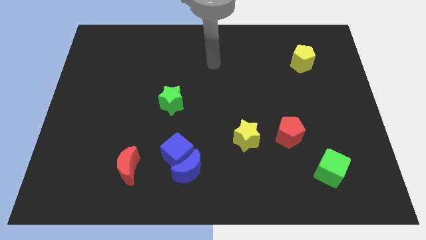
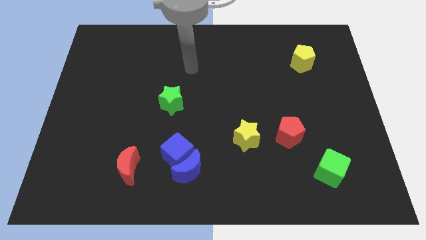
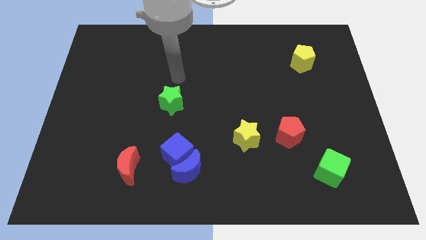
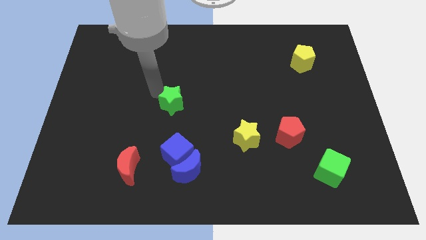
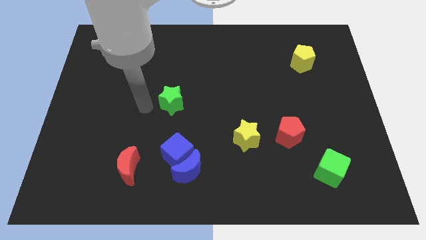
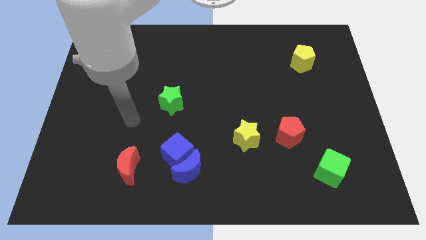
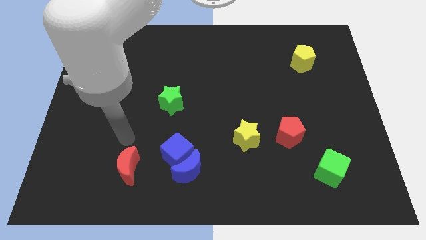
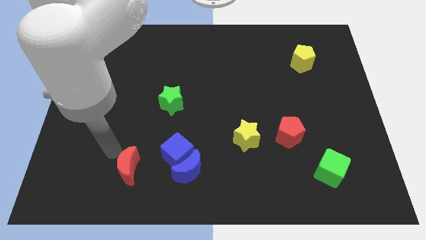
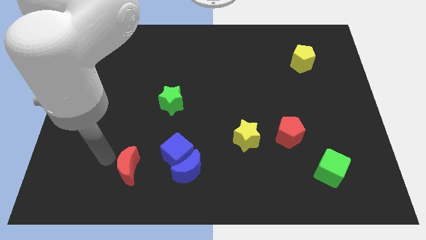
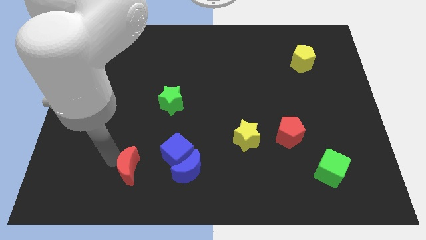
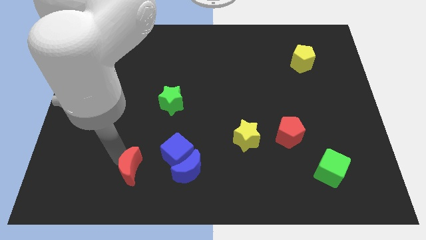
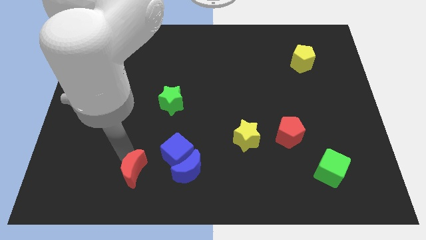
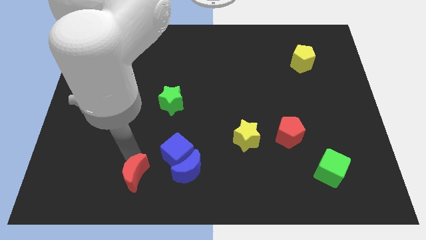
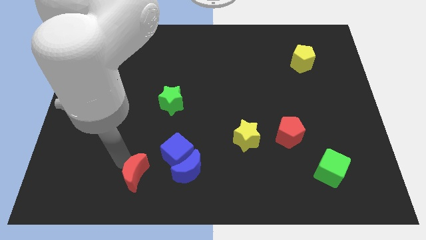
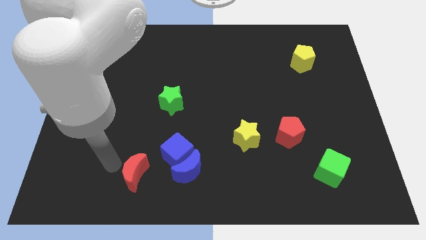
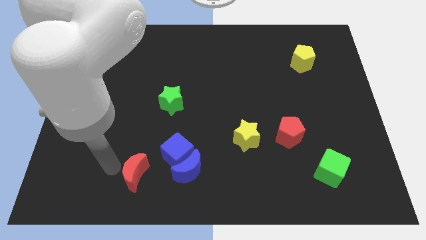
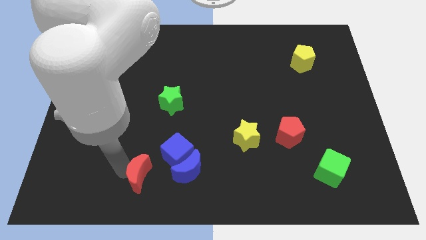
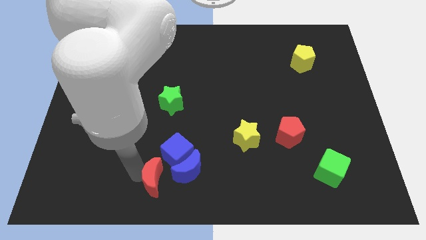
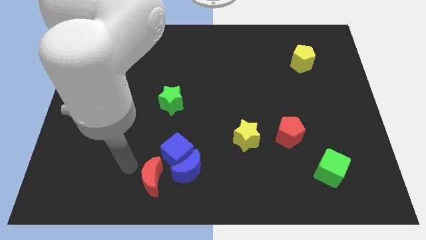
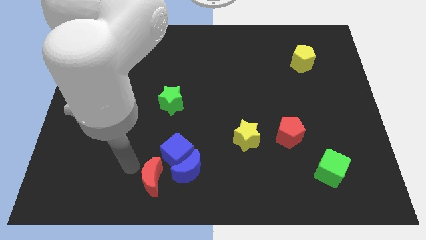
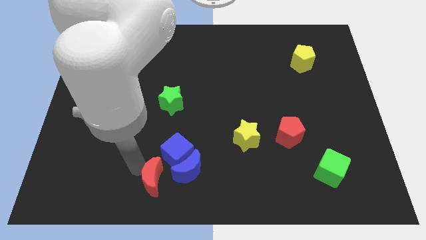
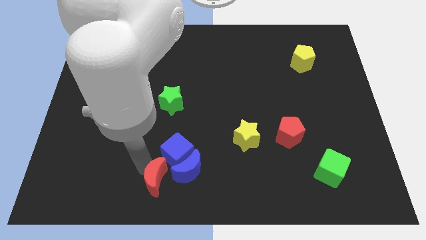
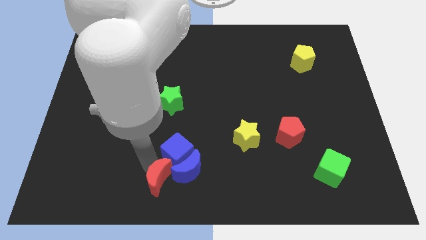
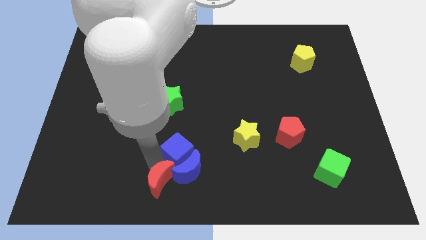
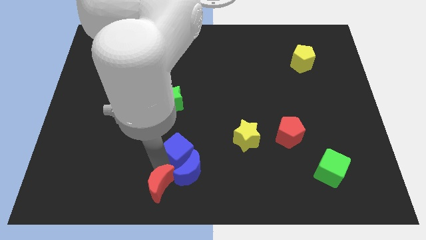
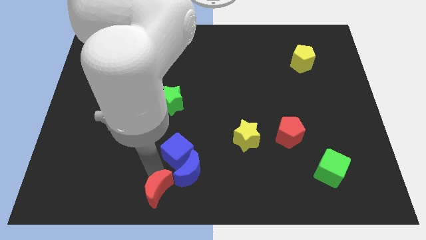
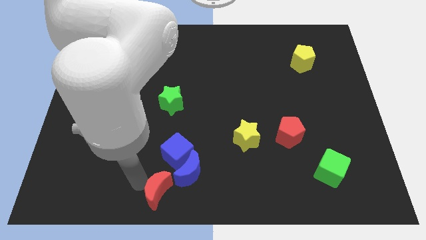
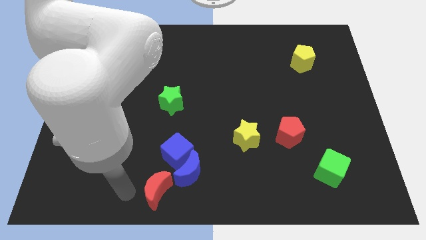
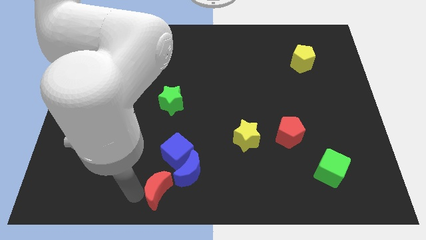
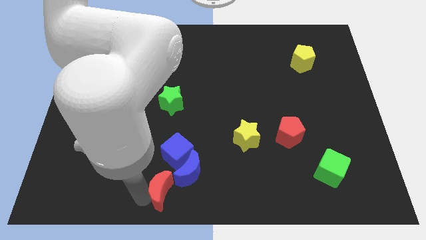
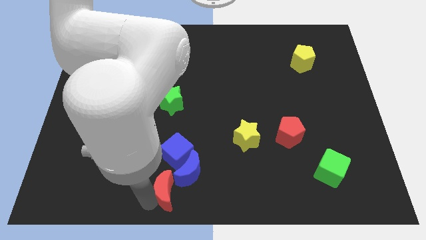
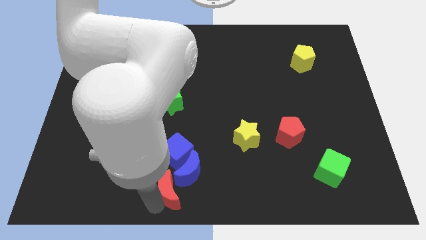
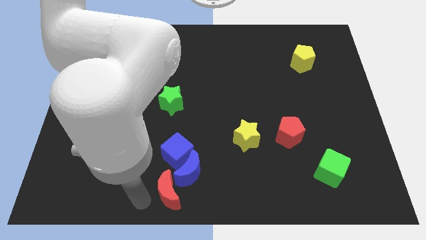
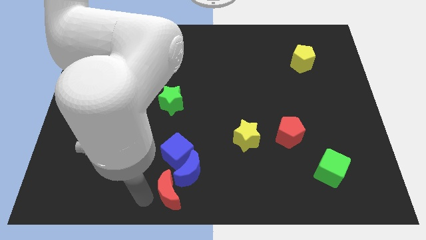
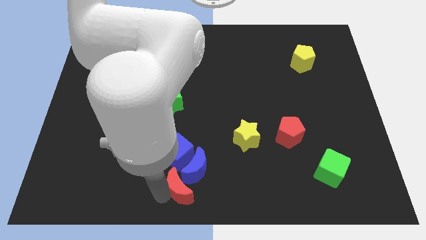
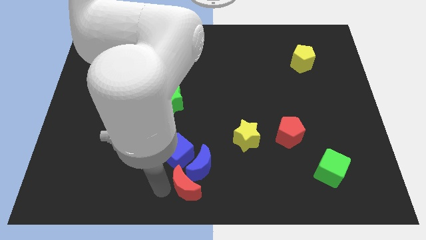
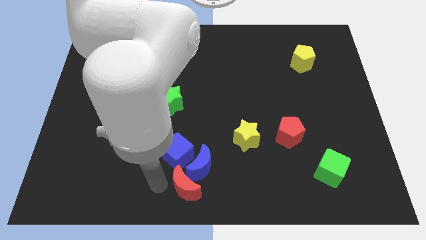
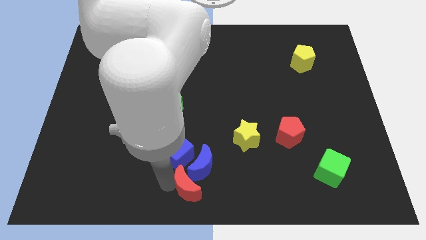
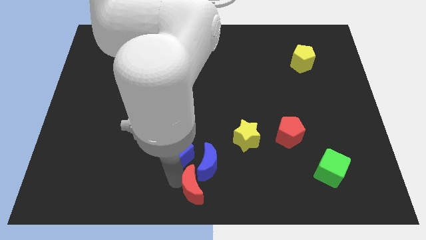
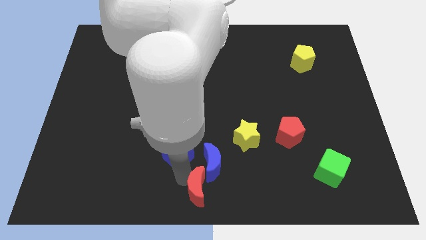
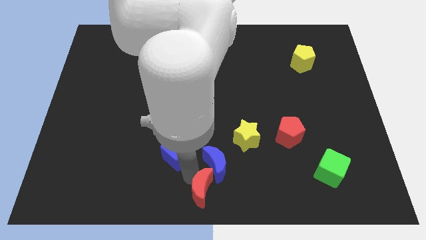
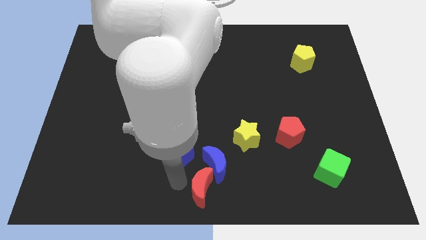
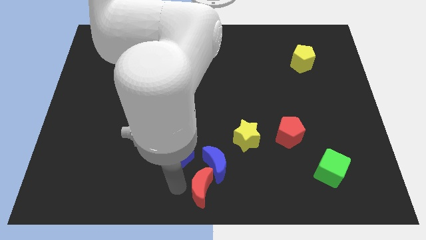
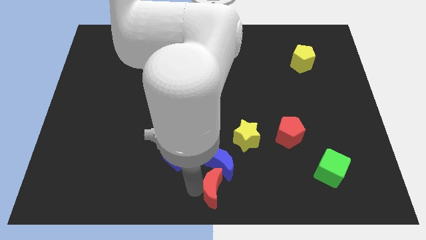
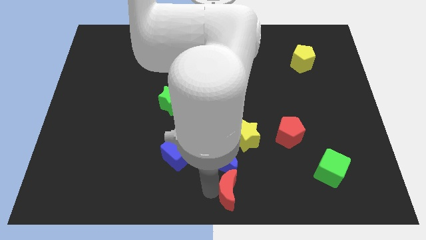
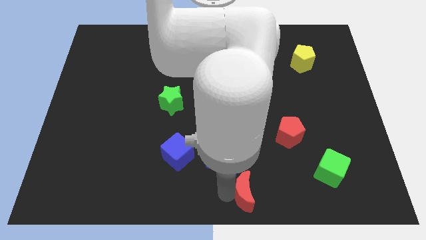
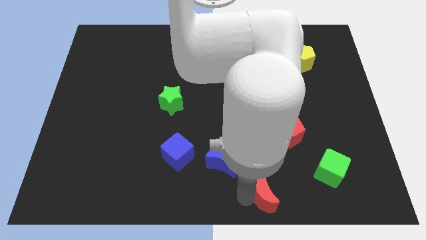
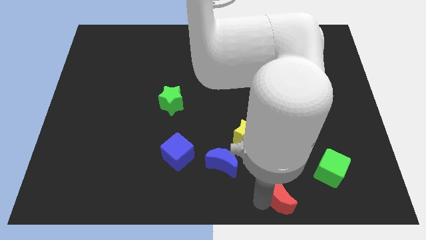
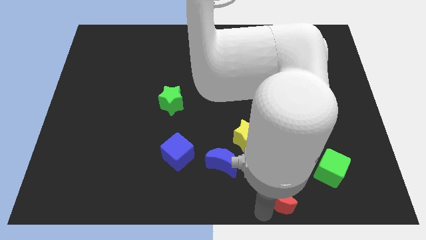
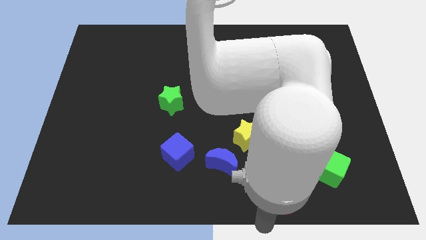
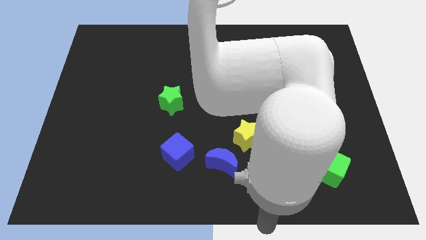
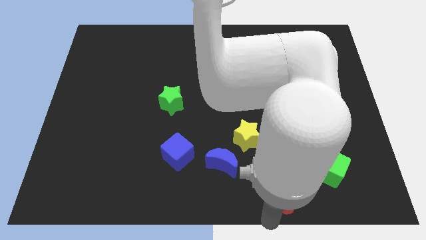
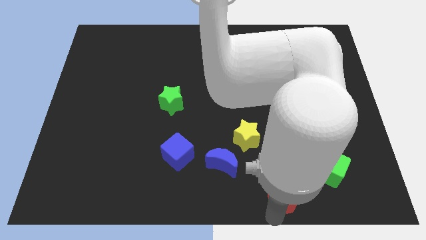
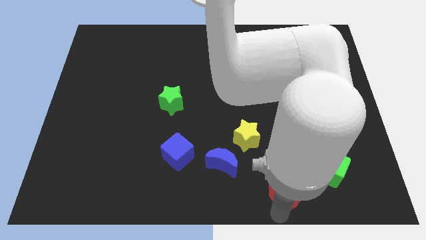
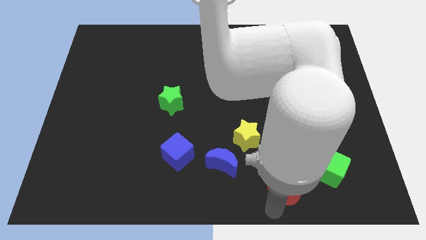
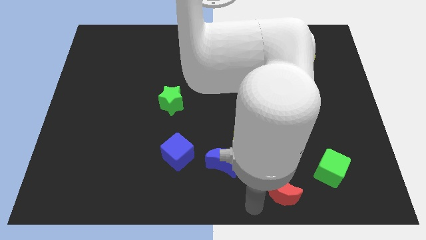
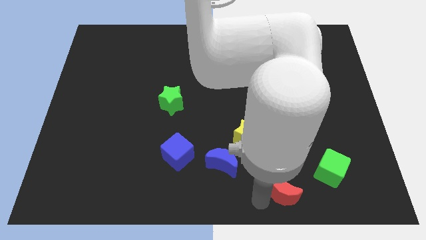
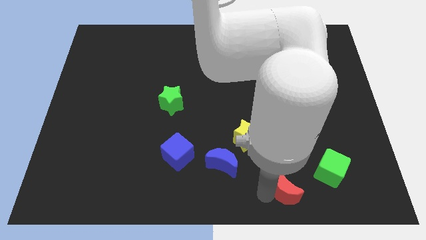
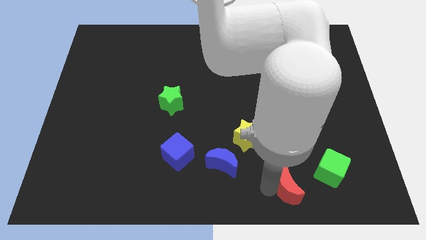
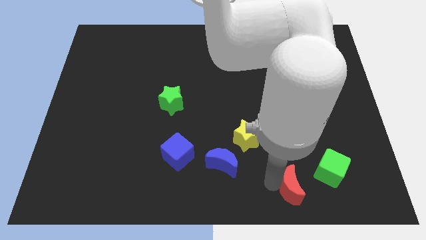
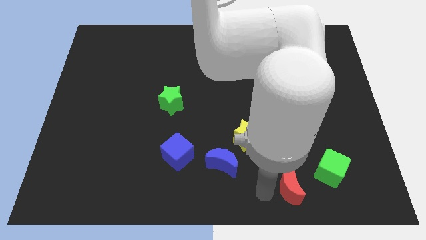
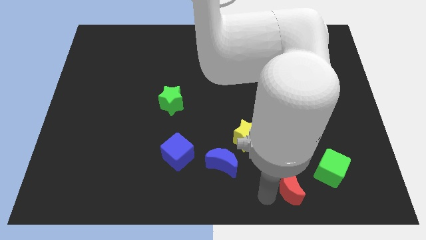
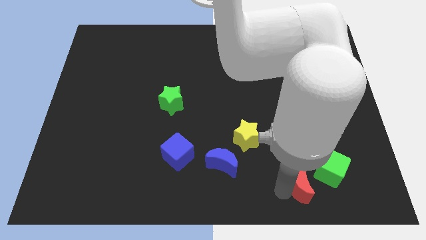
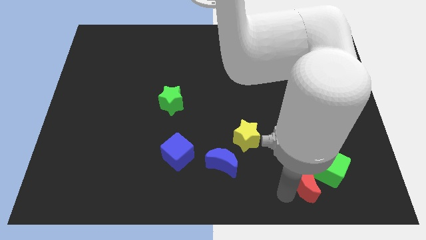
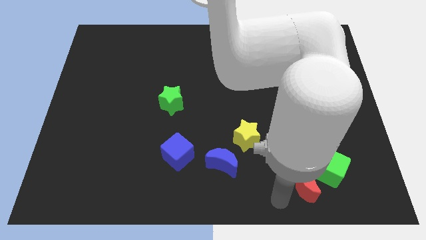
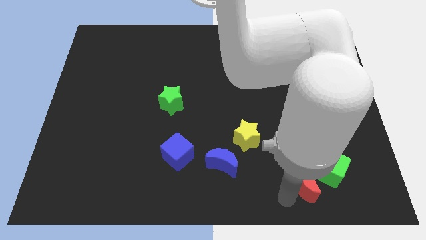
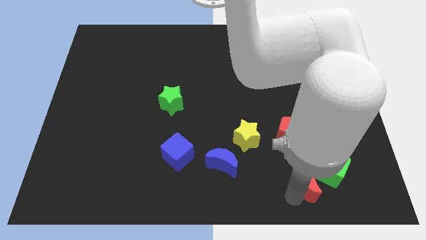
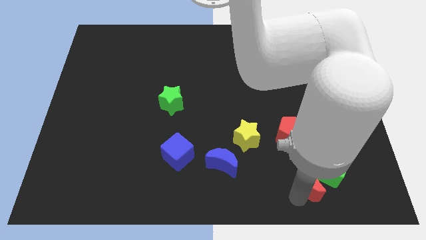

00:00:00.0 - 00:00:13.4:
move the red moon close to the green cube

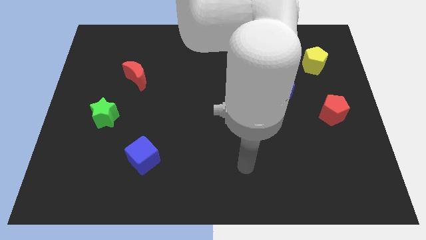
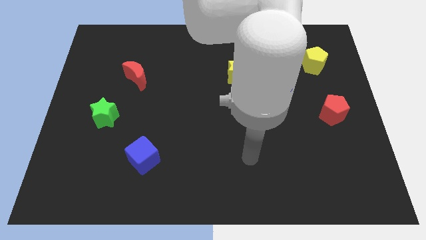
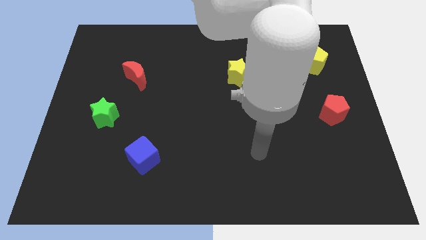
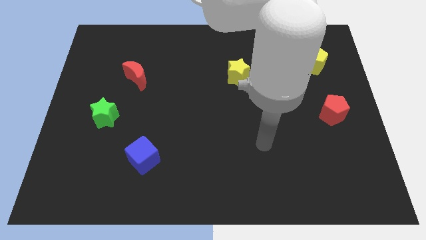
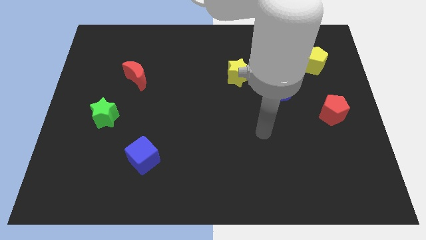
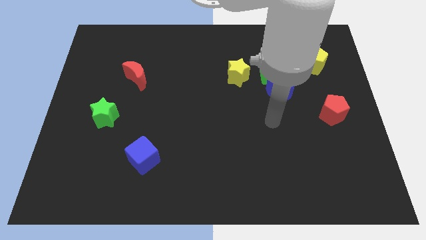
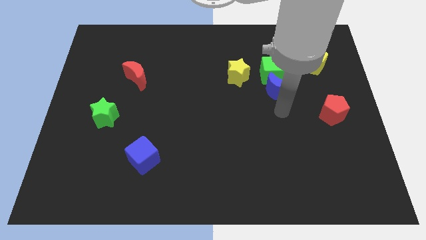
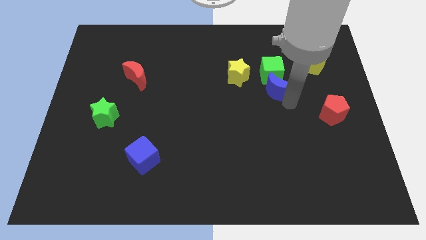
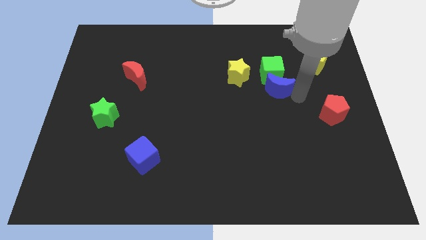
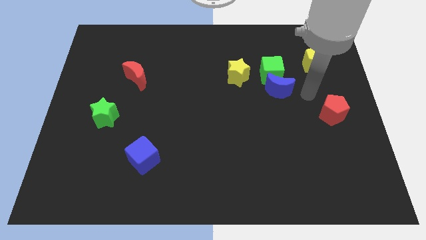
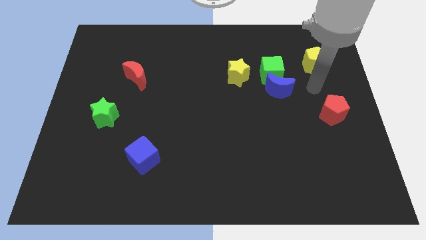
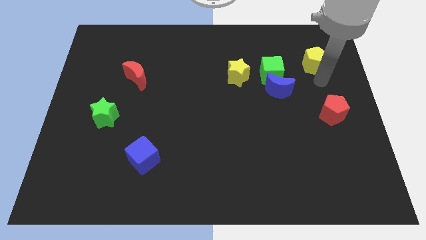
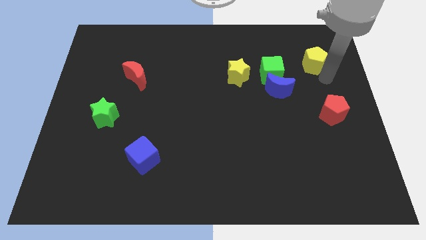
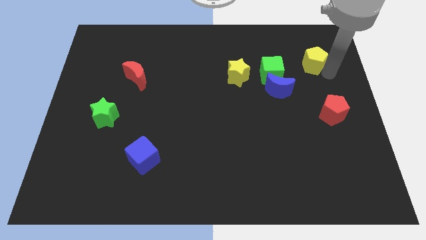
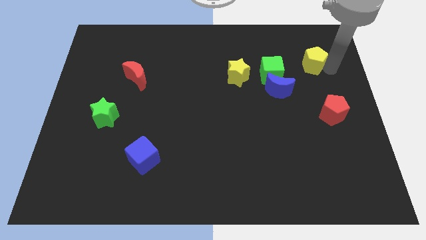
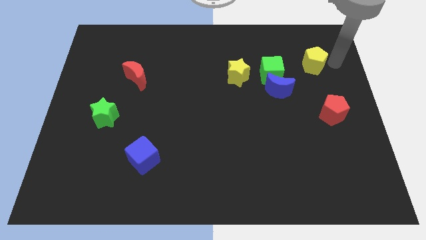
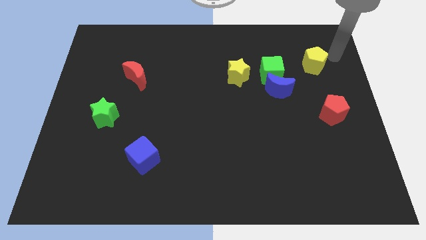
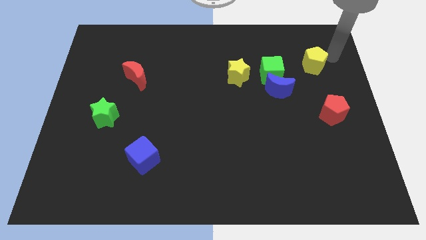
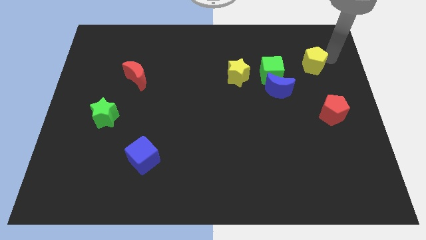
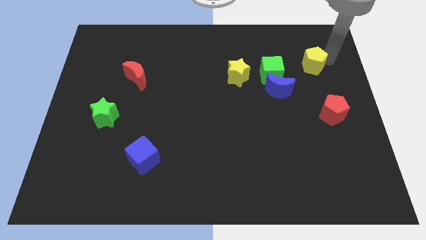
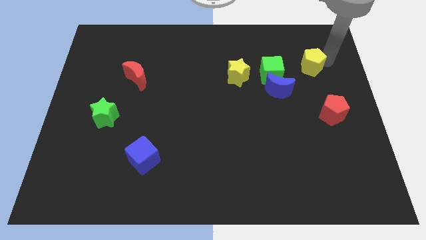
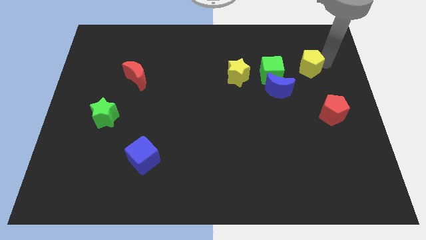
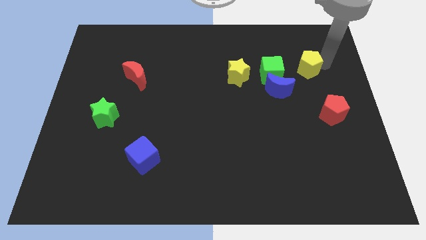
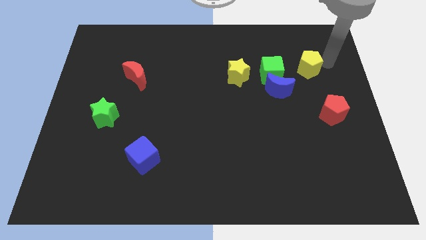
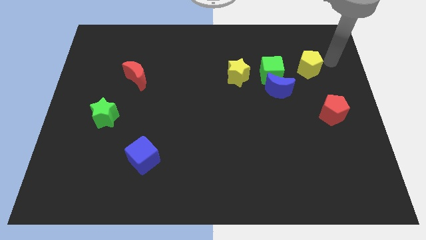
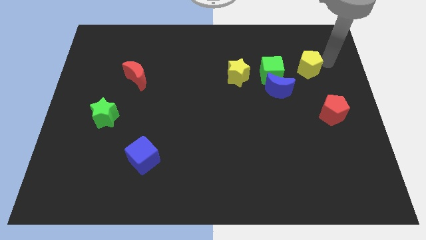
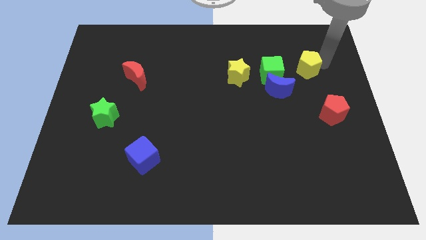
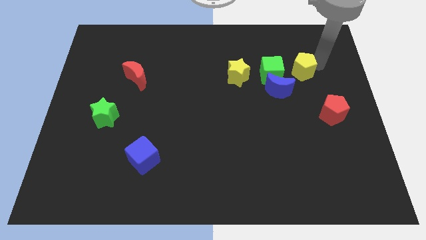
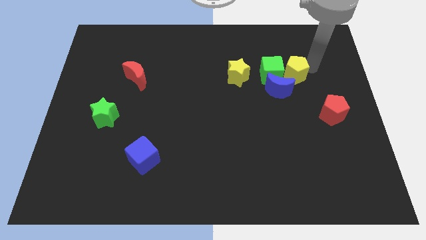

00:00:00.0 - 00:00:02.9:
slide the yellow pentagon close to the green cube
